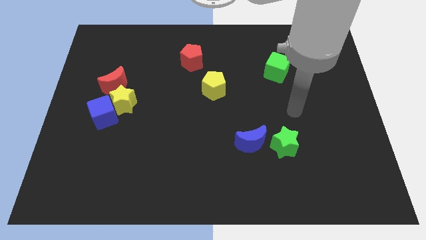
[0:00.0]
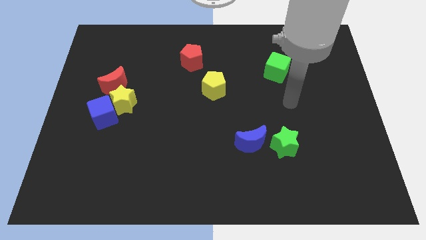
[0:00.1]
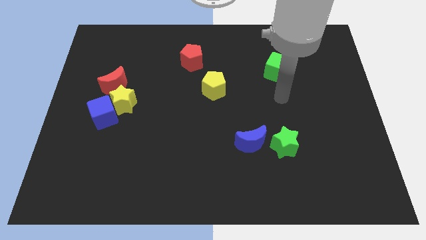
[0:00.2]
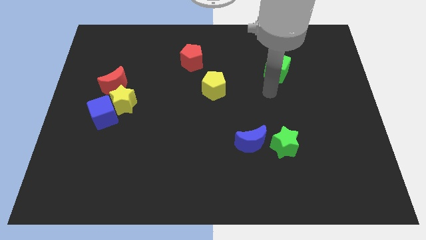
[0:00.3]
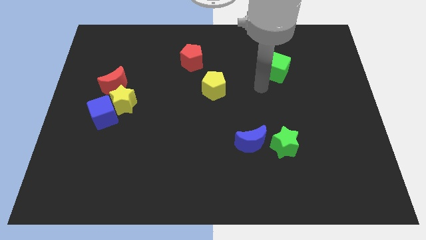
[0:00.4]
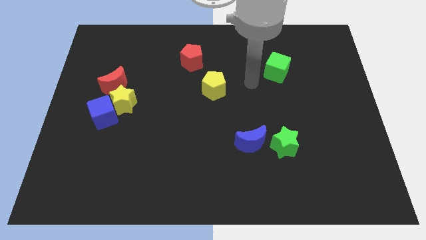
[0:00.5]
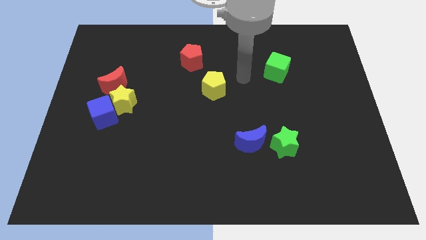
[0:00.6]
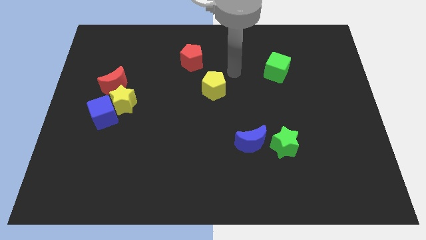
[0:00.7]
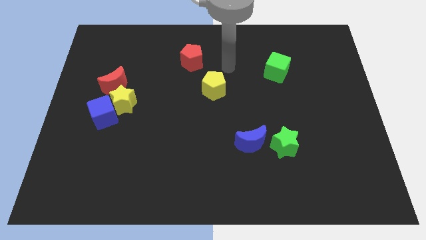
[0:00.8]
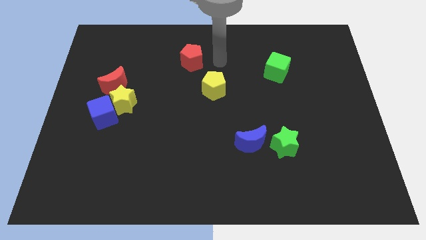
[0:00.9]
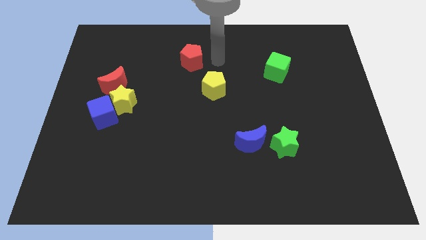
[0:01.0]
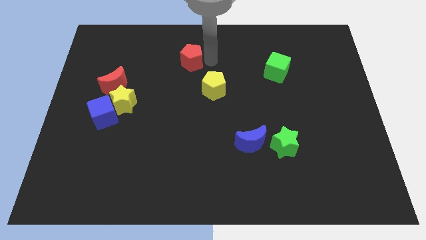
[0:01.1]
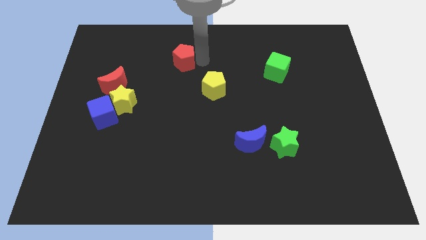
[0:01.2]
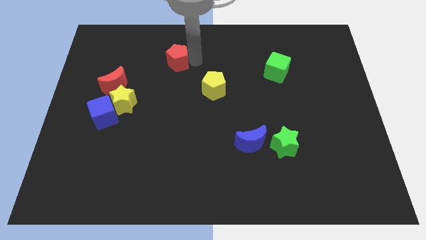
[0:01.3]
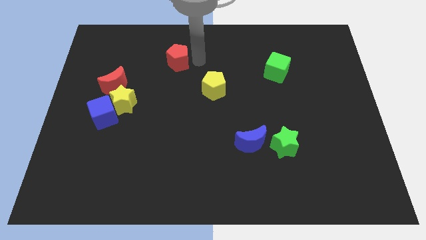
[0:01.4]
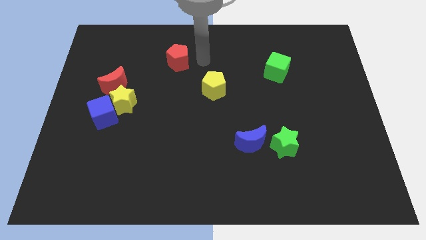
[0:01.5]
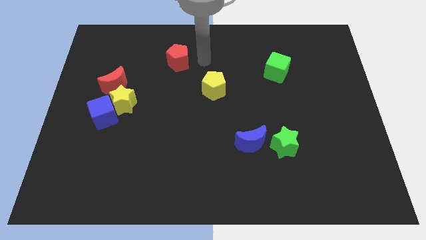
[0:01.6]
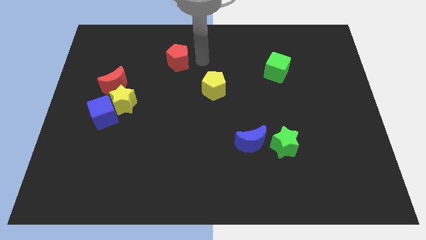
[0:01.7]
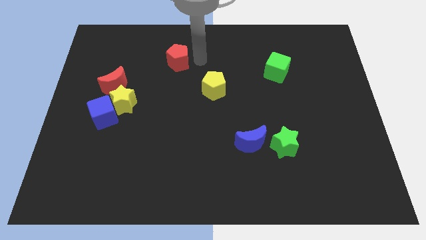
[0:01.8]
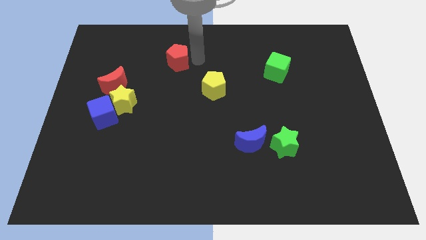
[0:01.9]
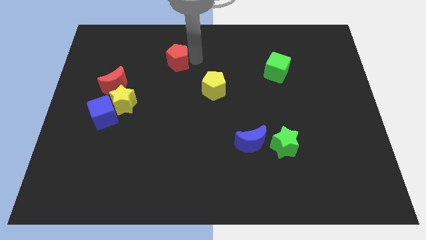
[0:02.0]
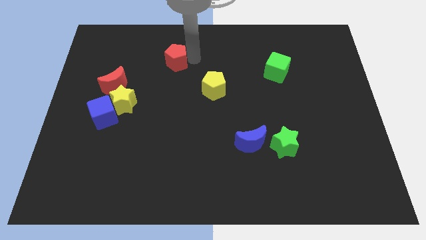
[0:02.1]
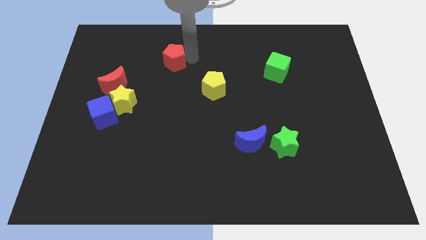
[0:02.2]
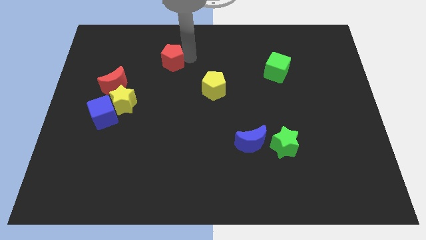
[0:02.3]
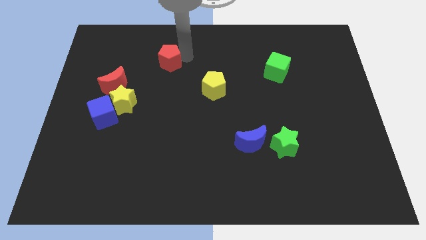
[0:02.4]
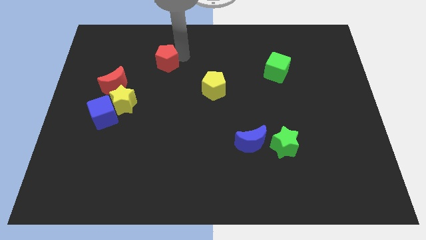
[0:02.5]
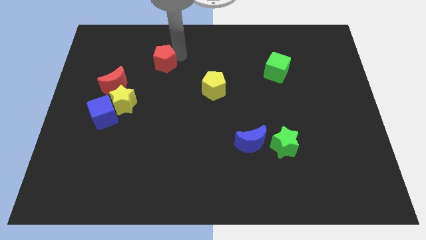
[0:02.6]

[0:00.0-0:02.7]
slightly push the red pentagon left

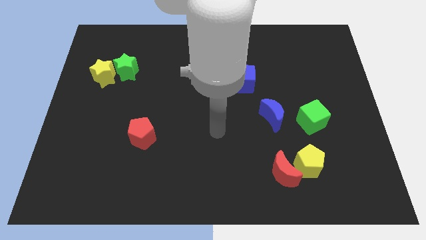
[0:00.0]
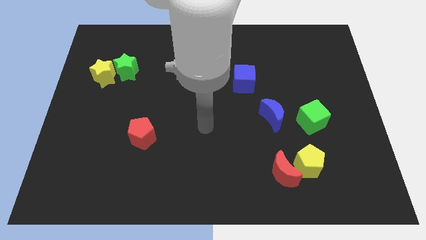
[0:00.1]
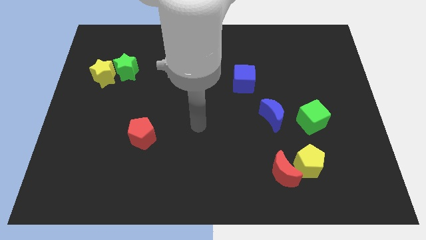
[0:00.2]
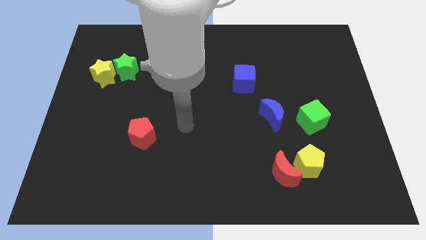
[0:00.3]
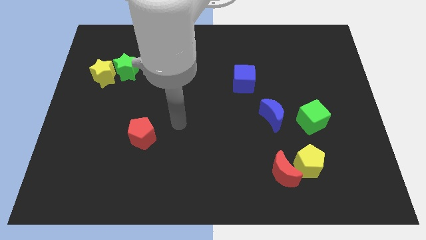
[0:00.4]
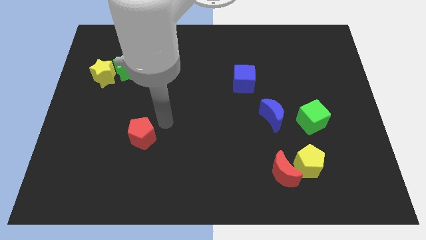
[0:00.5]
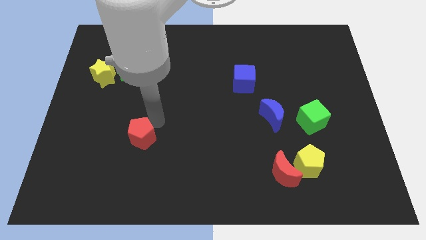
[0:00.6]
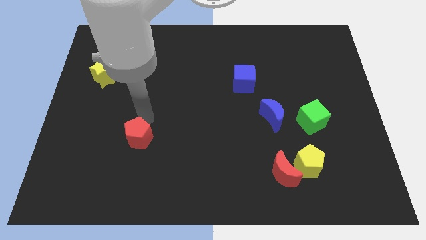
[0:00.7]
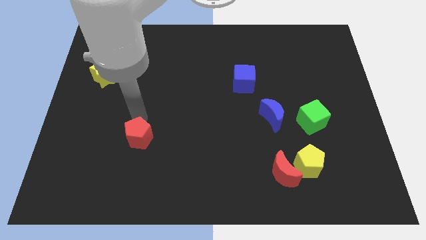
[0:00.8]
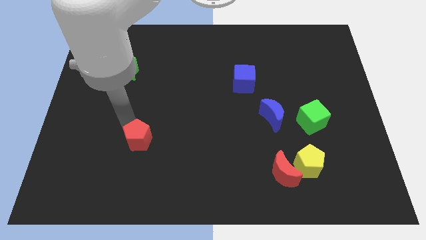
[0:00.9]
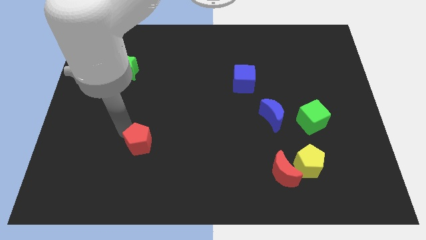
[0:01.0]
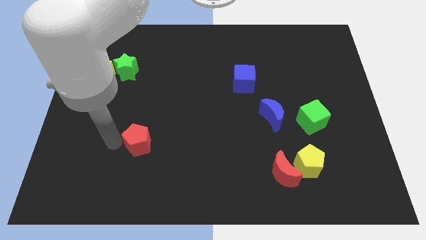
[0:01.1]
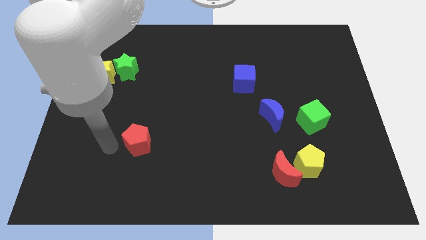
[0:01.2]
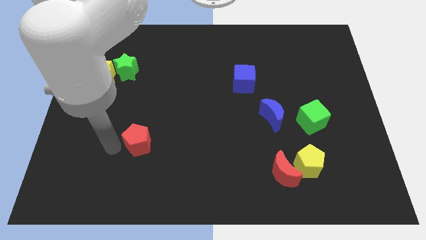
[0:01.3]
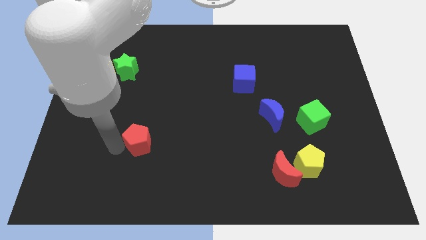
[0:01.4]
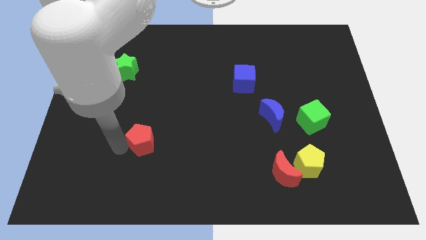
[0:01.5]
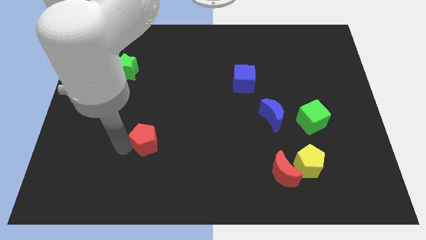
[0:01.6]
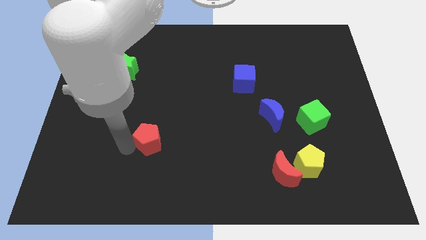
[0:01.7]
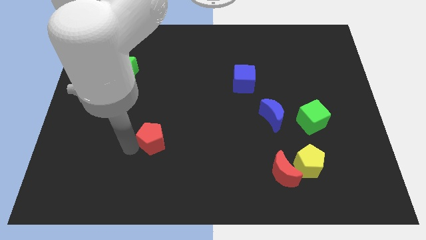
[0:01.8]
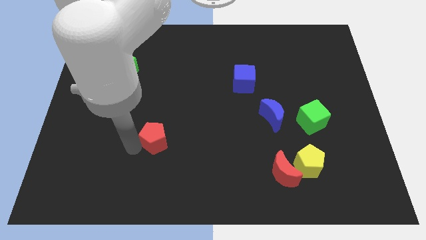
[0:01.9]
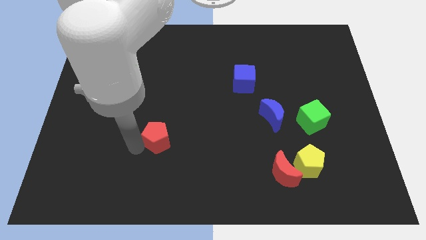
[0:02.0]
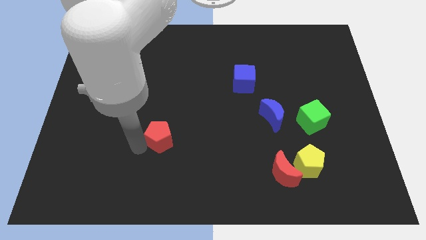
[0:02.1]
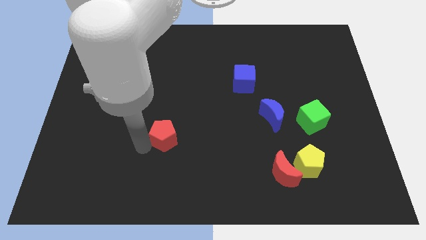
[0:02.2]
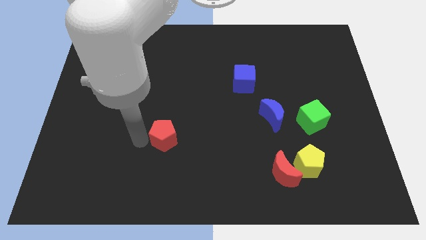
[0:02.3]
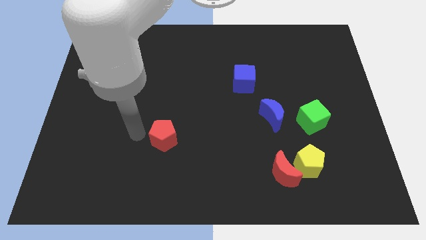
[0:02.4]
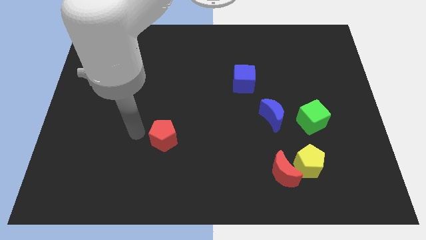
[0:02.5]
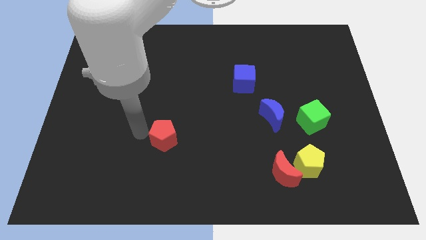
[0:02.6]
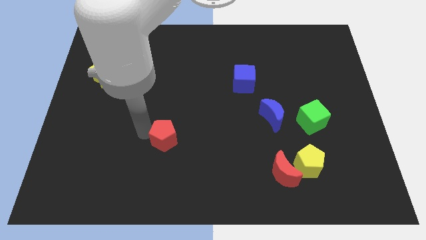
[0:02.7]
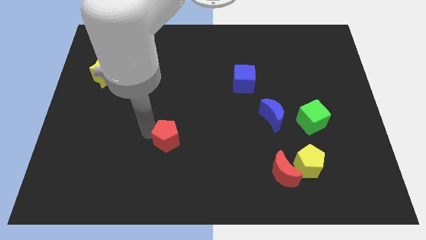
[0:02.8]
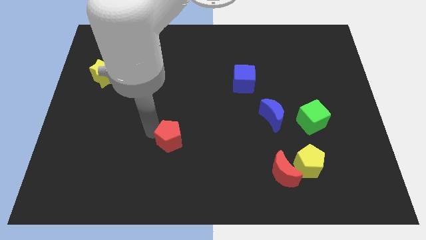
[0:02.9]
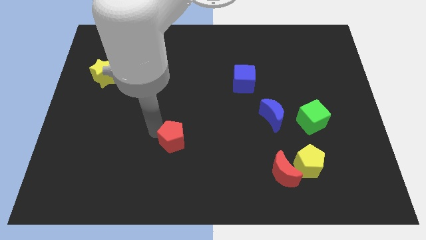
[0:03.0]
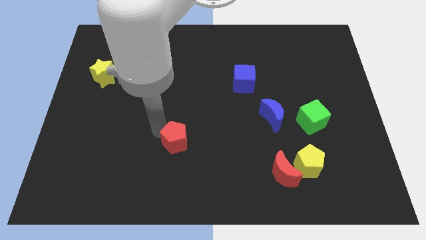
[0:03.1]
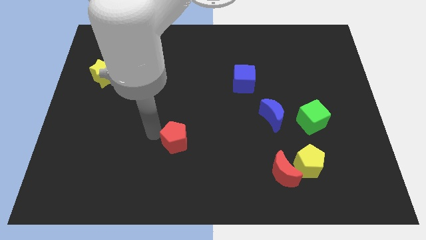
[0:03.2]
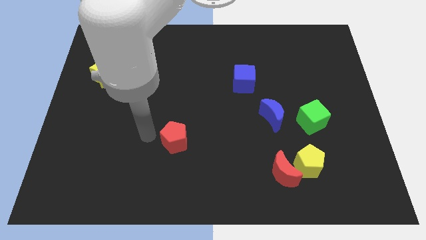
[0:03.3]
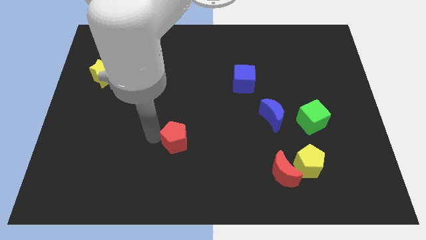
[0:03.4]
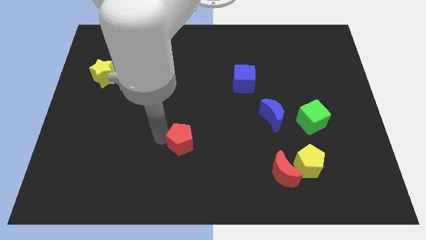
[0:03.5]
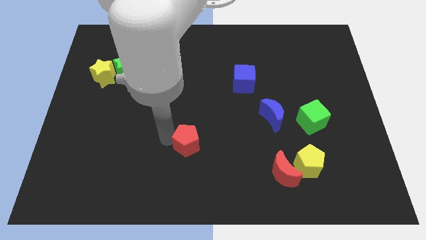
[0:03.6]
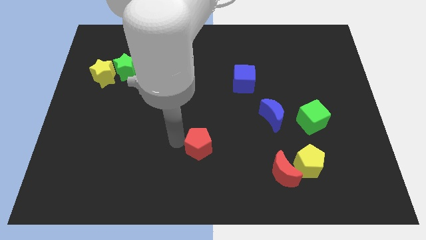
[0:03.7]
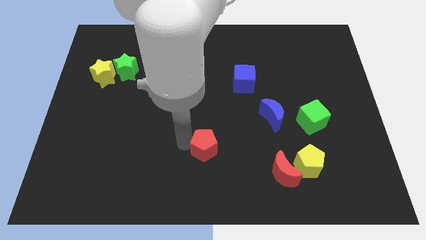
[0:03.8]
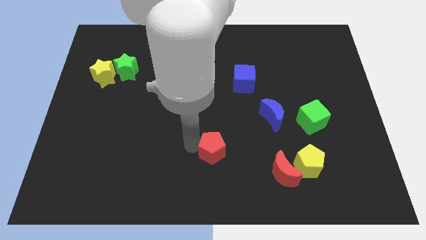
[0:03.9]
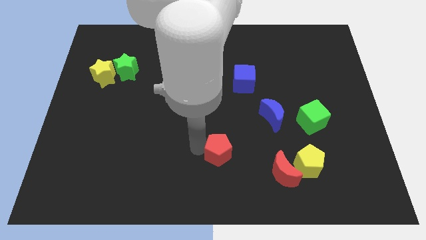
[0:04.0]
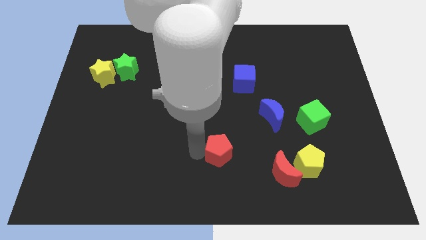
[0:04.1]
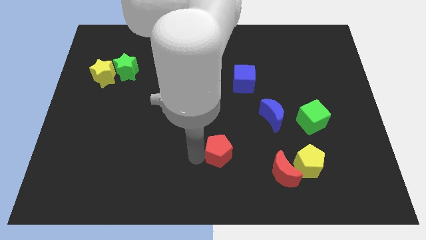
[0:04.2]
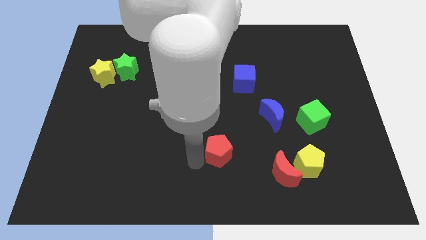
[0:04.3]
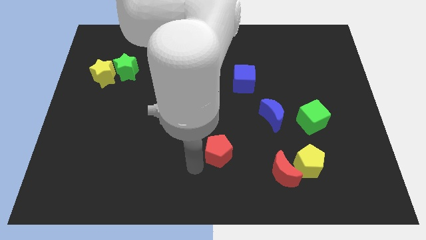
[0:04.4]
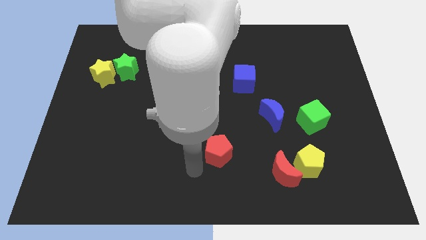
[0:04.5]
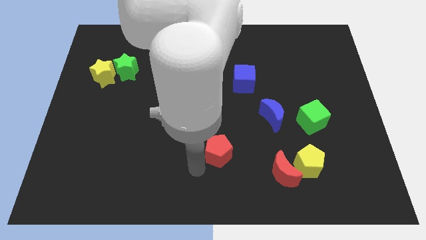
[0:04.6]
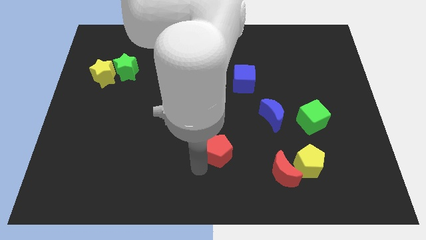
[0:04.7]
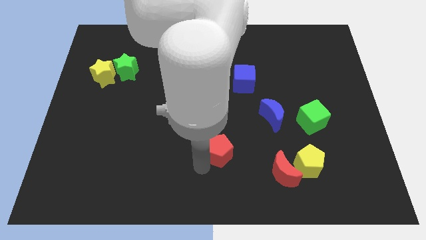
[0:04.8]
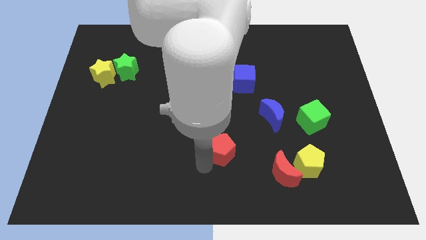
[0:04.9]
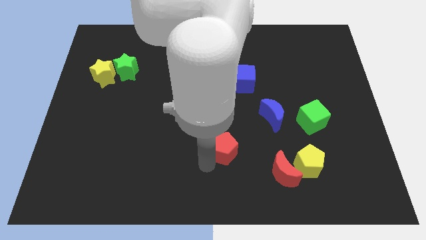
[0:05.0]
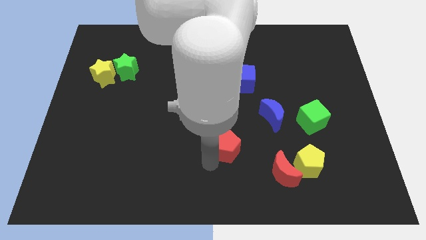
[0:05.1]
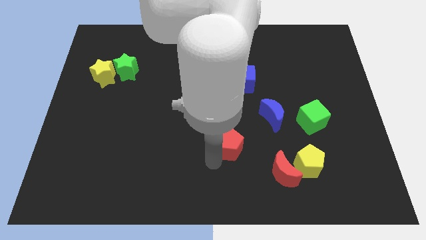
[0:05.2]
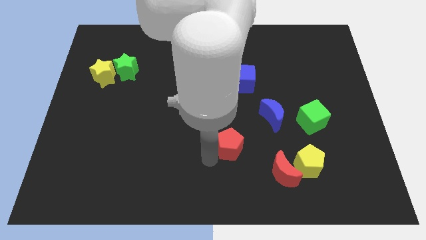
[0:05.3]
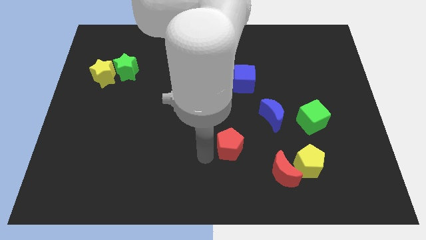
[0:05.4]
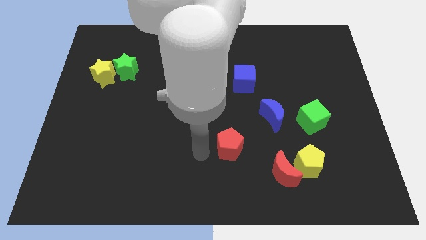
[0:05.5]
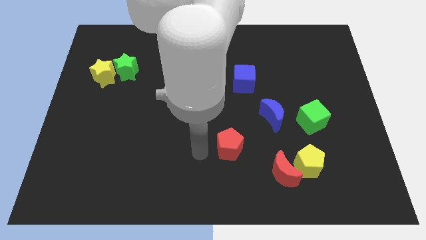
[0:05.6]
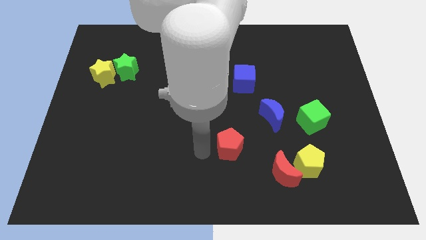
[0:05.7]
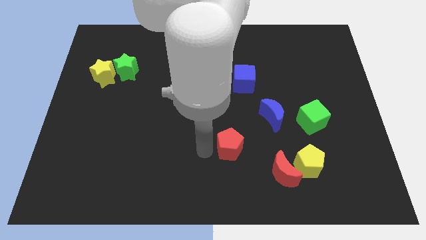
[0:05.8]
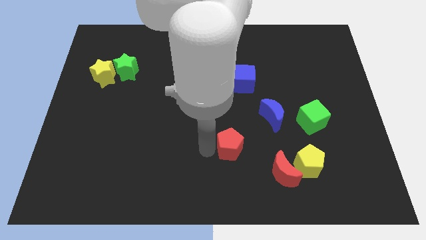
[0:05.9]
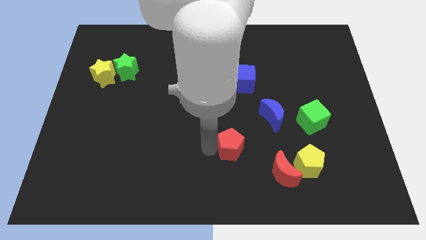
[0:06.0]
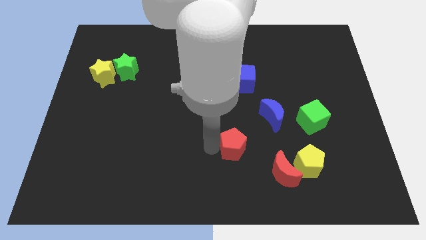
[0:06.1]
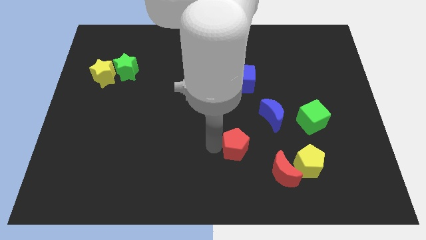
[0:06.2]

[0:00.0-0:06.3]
push the red pentagon right
